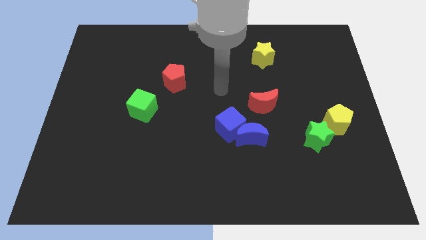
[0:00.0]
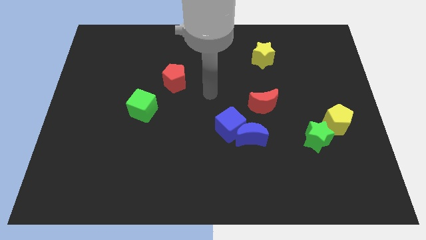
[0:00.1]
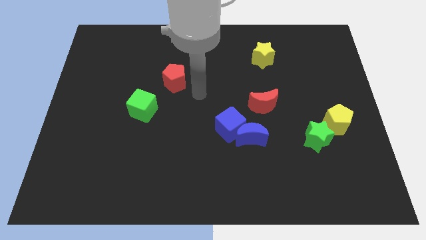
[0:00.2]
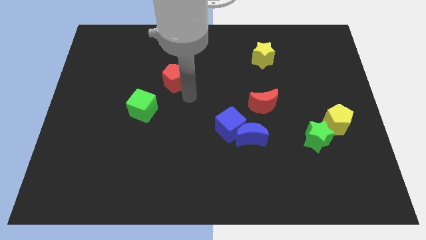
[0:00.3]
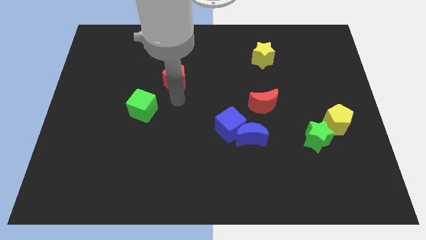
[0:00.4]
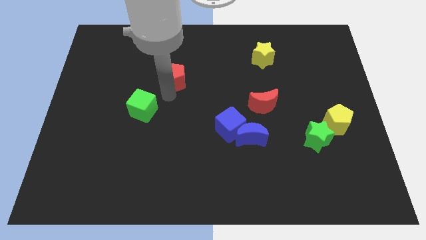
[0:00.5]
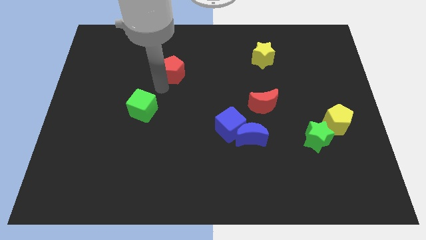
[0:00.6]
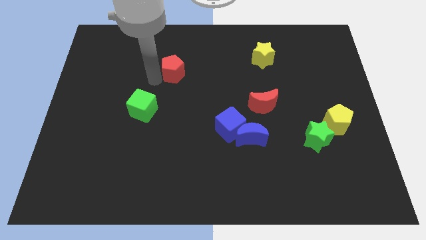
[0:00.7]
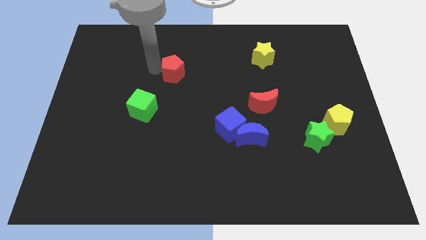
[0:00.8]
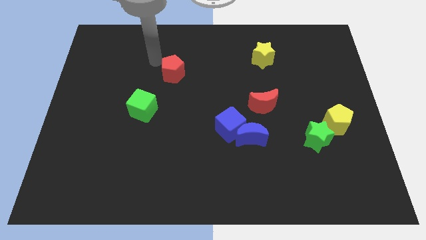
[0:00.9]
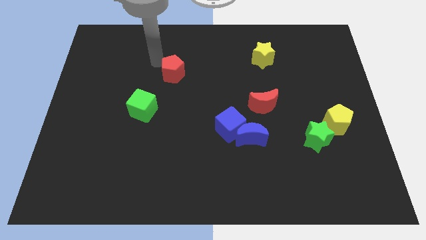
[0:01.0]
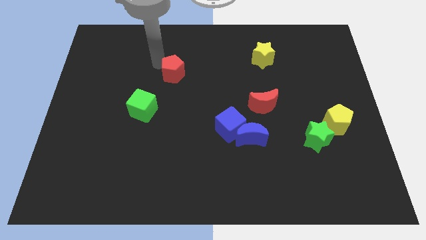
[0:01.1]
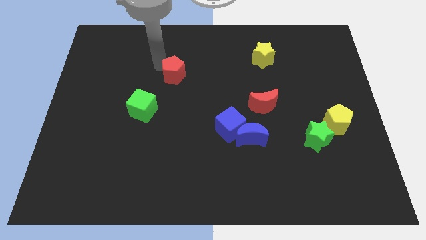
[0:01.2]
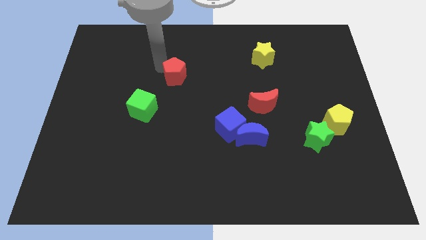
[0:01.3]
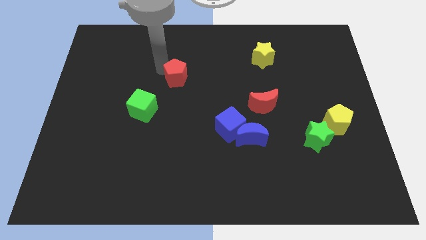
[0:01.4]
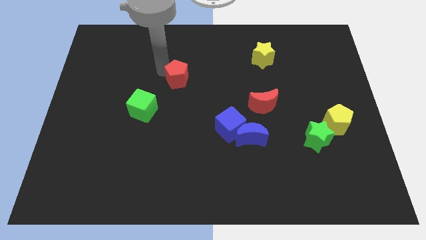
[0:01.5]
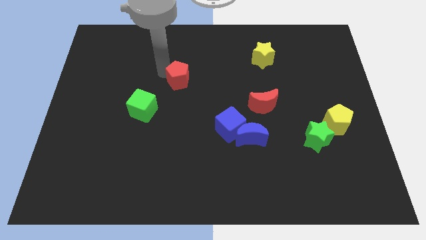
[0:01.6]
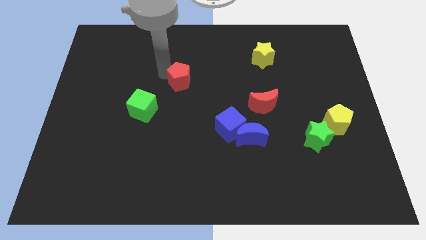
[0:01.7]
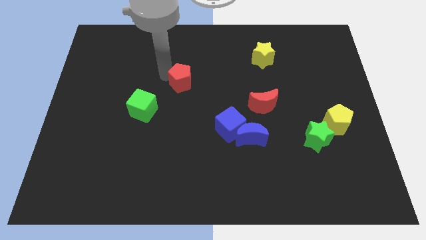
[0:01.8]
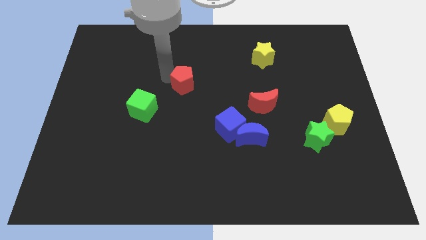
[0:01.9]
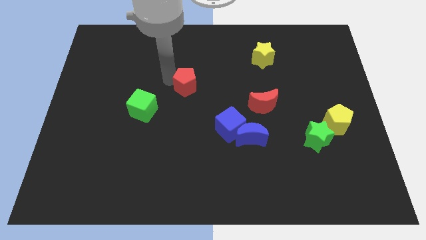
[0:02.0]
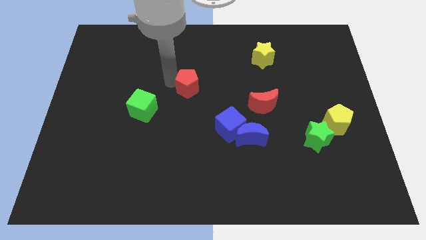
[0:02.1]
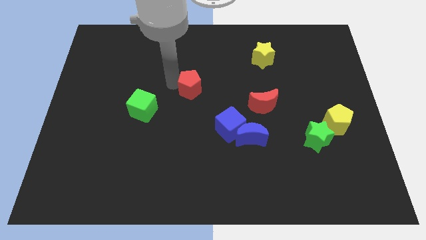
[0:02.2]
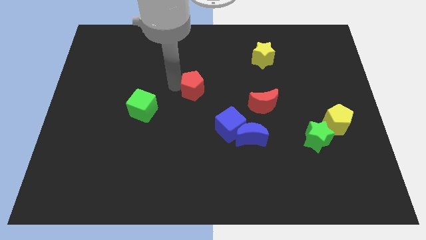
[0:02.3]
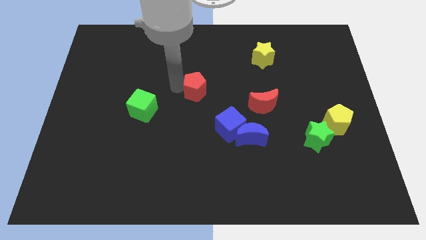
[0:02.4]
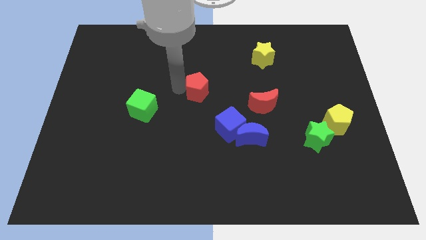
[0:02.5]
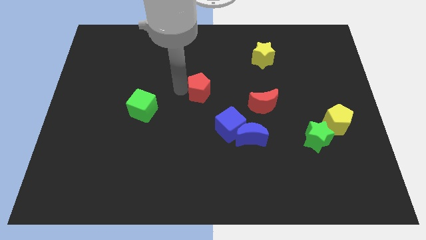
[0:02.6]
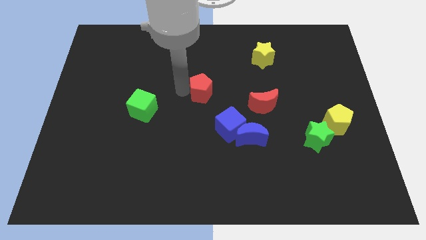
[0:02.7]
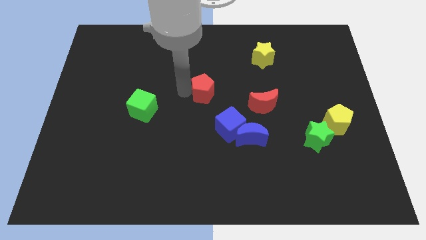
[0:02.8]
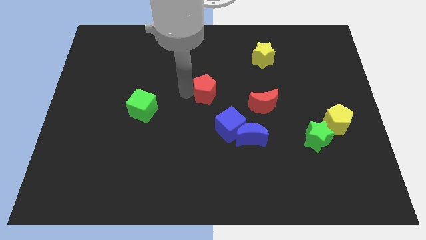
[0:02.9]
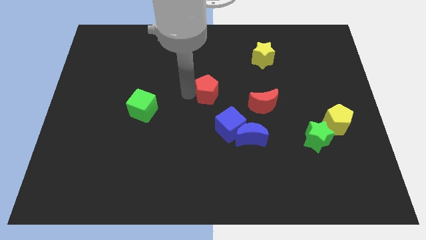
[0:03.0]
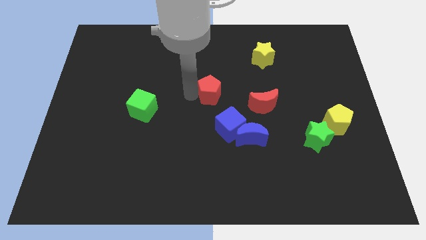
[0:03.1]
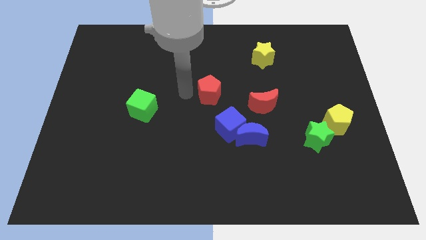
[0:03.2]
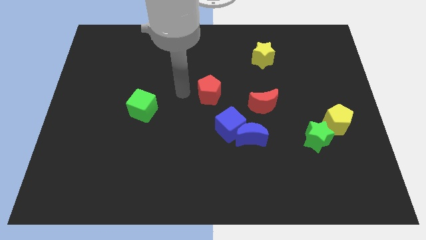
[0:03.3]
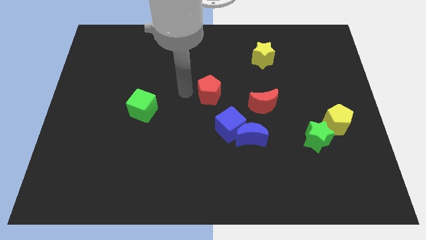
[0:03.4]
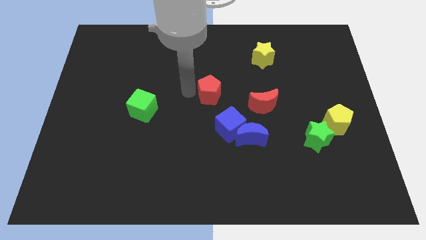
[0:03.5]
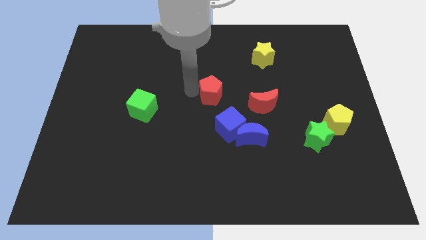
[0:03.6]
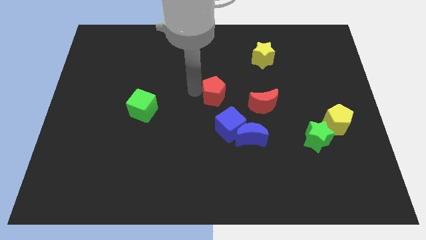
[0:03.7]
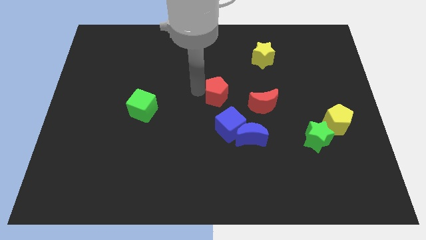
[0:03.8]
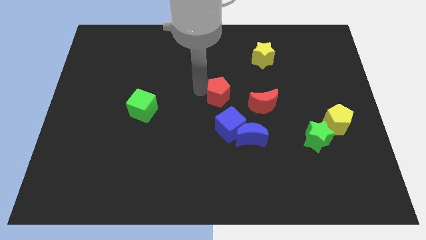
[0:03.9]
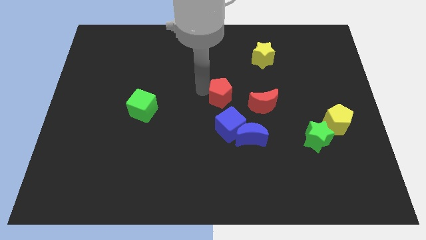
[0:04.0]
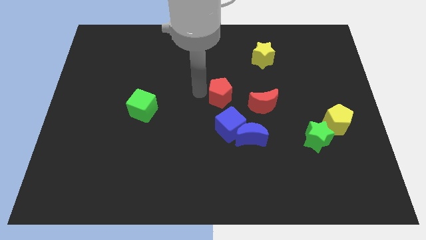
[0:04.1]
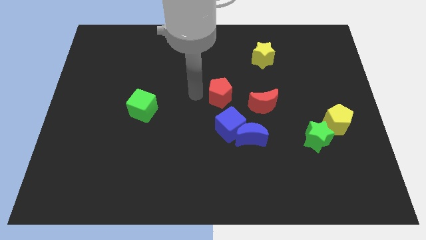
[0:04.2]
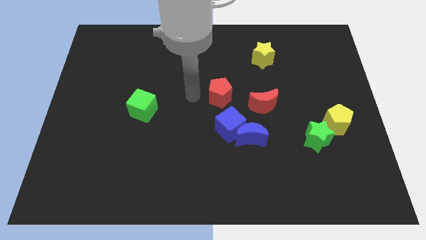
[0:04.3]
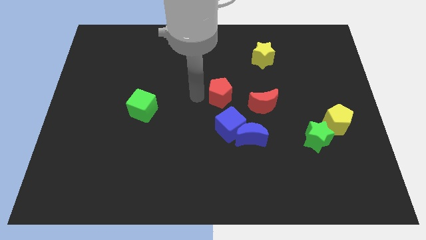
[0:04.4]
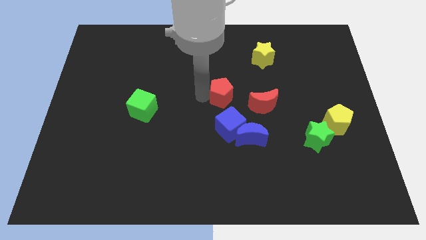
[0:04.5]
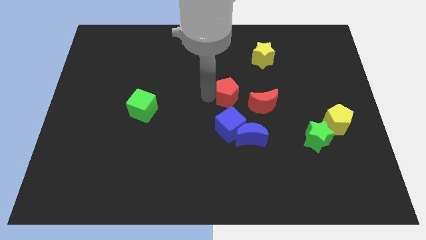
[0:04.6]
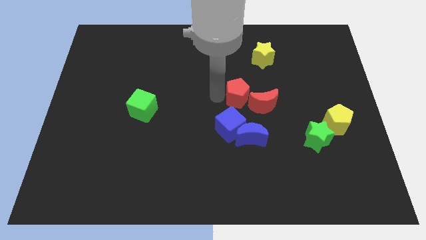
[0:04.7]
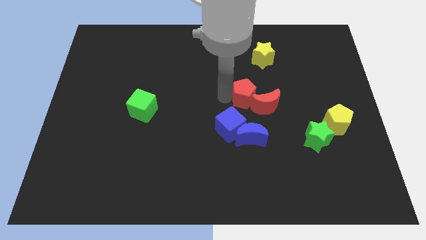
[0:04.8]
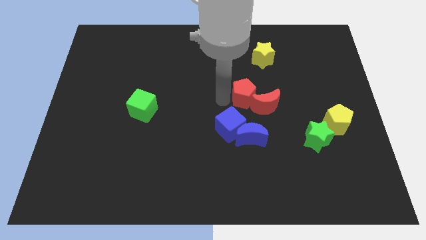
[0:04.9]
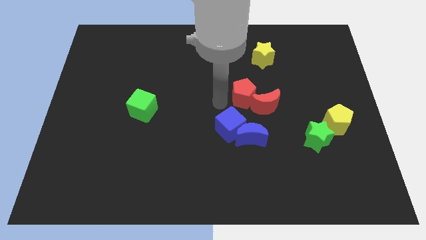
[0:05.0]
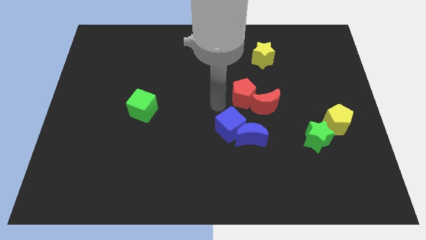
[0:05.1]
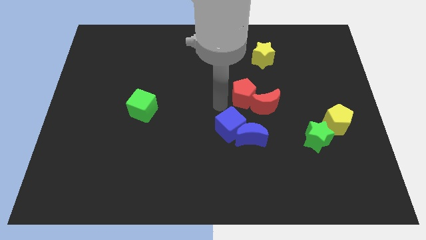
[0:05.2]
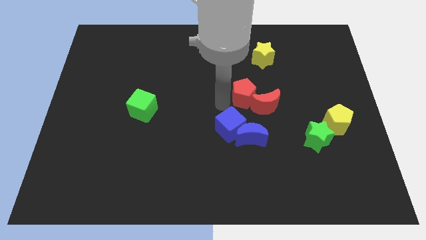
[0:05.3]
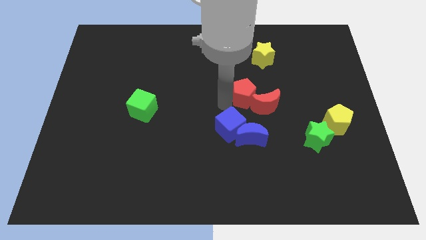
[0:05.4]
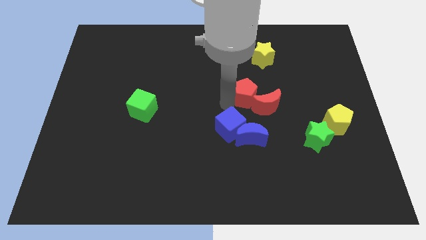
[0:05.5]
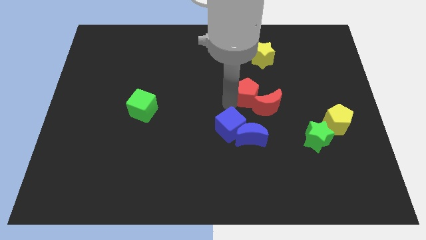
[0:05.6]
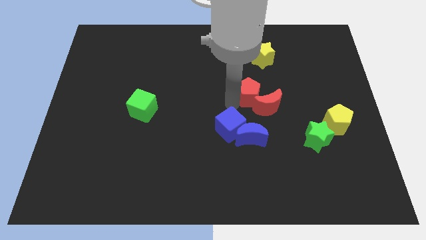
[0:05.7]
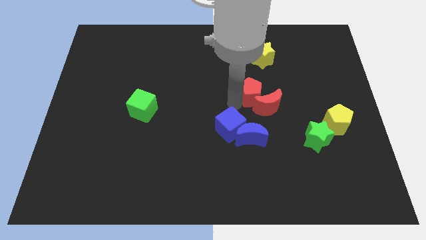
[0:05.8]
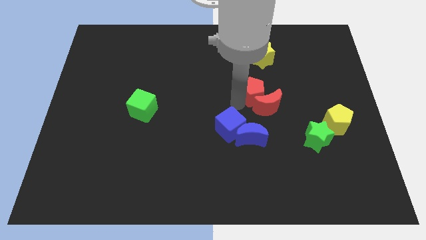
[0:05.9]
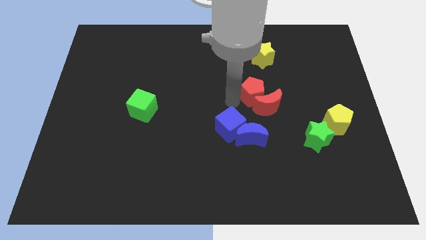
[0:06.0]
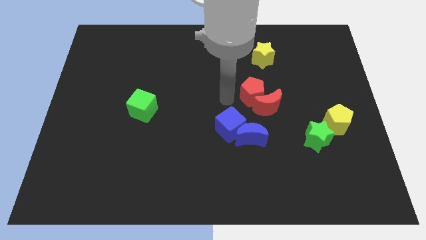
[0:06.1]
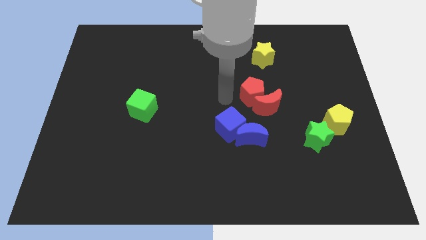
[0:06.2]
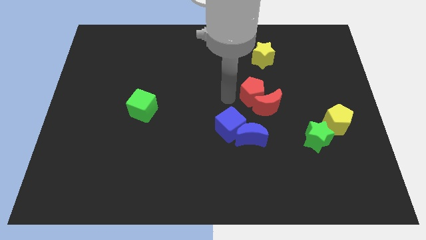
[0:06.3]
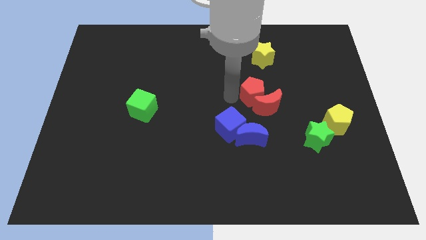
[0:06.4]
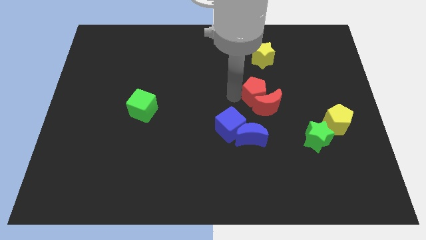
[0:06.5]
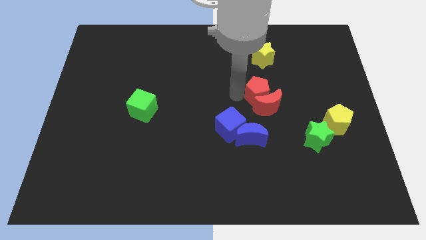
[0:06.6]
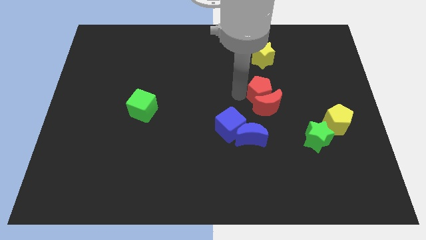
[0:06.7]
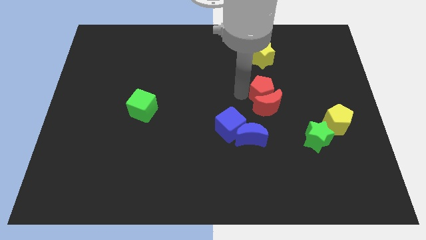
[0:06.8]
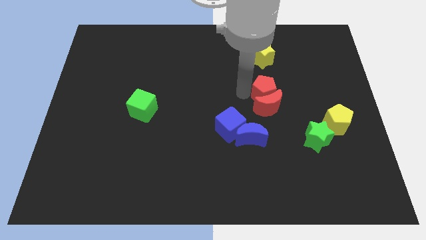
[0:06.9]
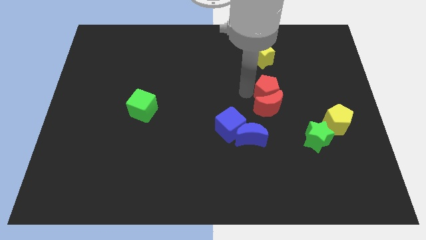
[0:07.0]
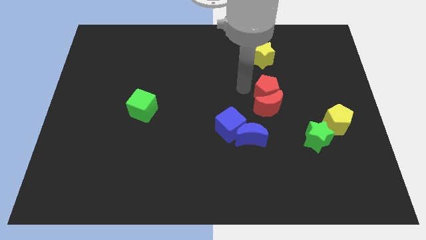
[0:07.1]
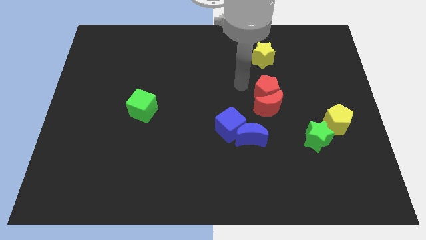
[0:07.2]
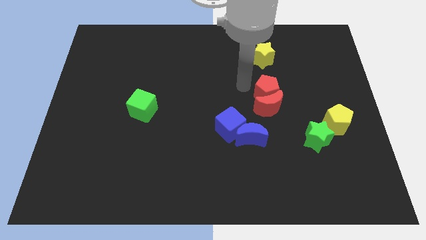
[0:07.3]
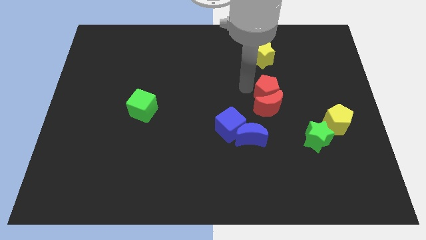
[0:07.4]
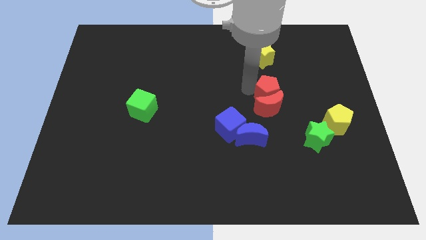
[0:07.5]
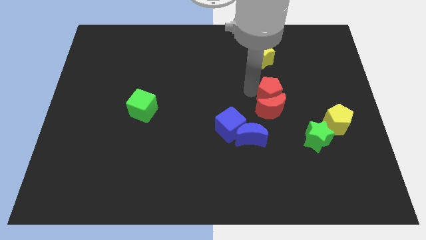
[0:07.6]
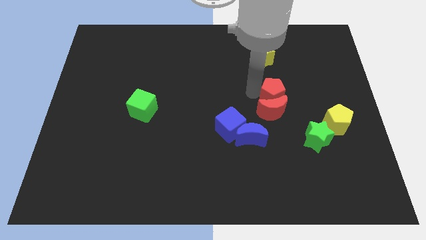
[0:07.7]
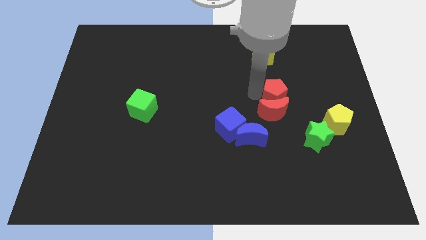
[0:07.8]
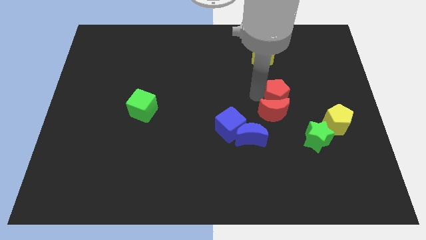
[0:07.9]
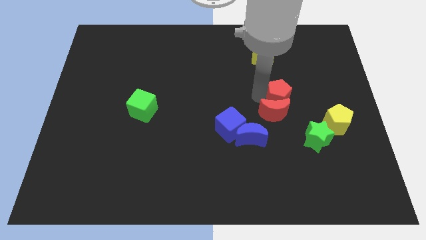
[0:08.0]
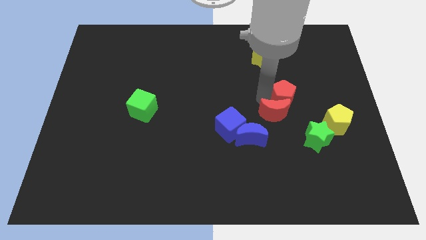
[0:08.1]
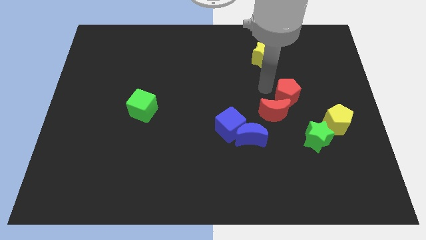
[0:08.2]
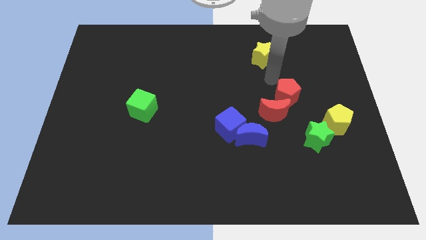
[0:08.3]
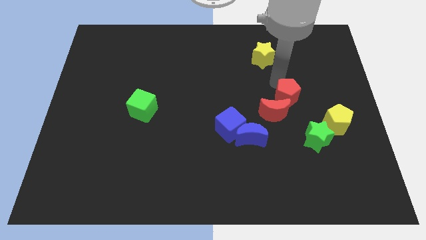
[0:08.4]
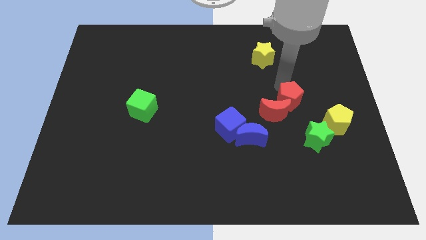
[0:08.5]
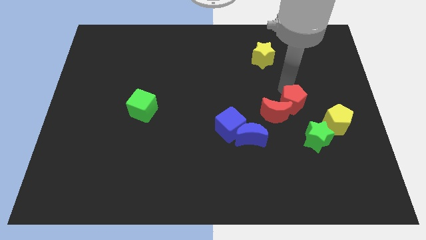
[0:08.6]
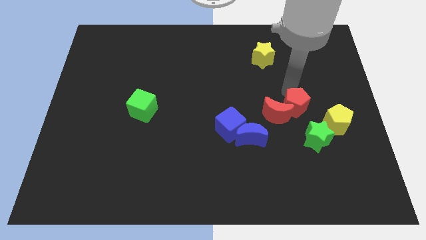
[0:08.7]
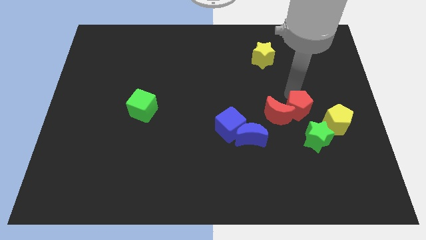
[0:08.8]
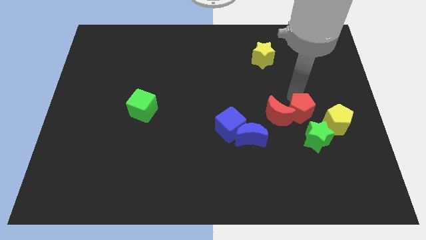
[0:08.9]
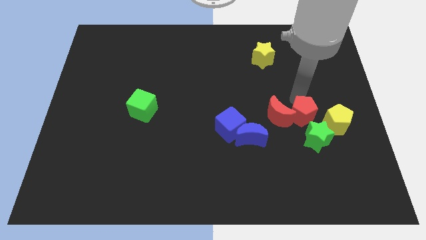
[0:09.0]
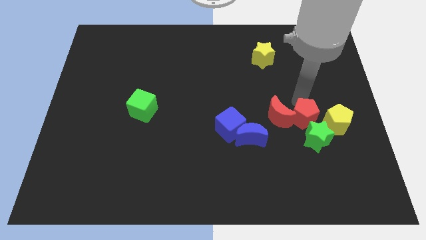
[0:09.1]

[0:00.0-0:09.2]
push the red pentagon towards the green star
